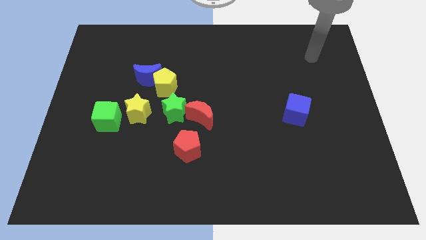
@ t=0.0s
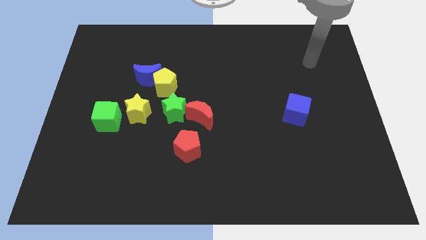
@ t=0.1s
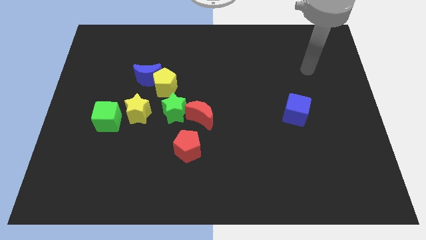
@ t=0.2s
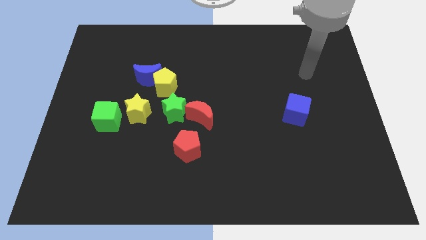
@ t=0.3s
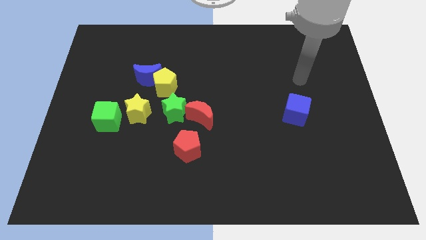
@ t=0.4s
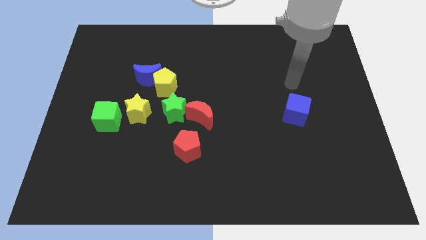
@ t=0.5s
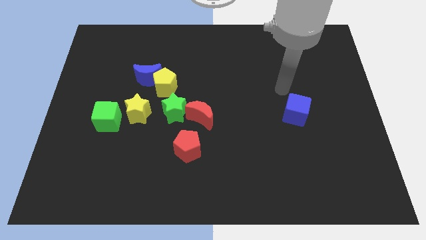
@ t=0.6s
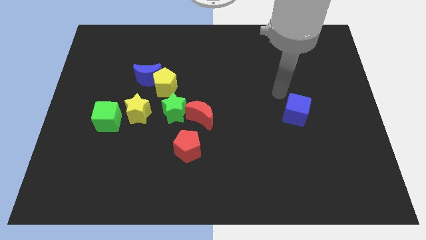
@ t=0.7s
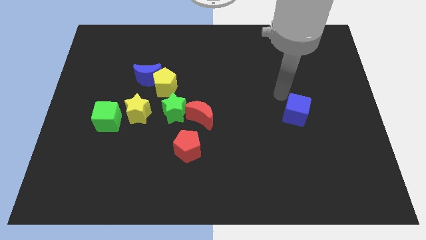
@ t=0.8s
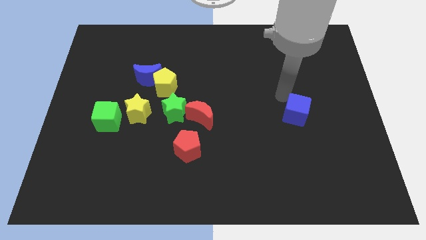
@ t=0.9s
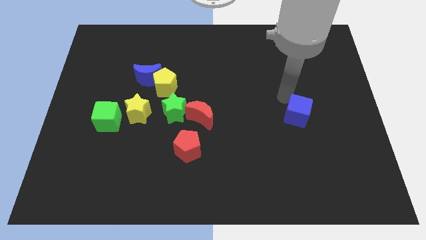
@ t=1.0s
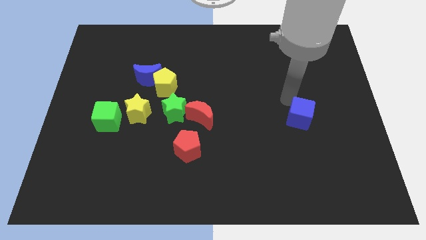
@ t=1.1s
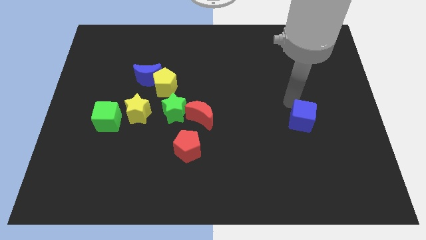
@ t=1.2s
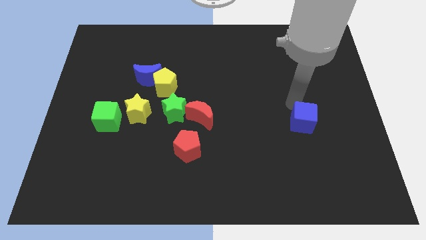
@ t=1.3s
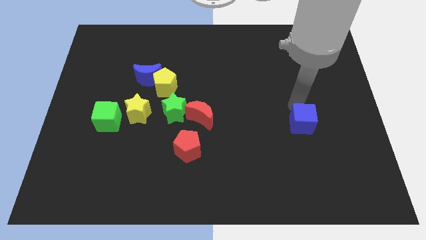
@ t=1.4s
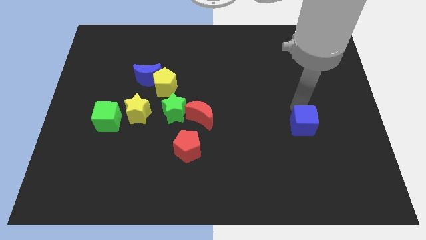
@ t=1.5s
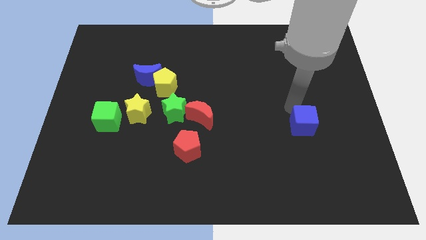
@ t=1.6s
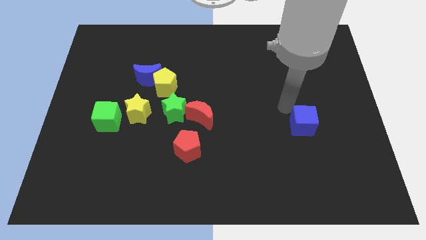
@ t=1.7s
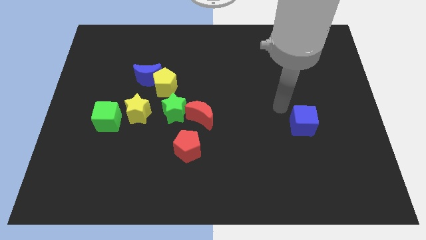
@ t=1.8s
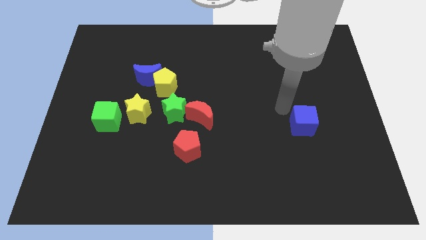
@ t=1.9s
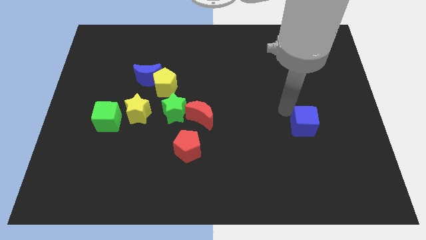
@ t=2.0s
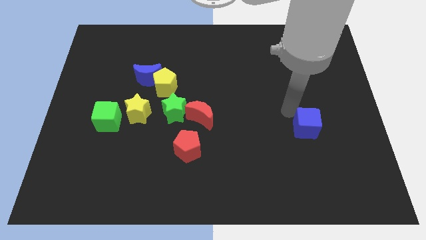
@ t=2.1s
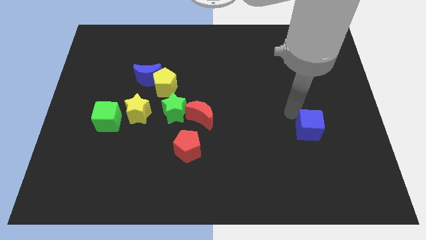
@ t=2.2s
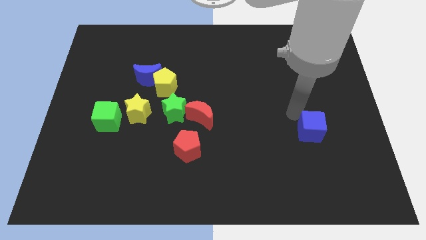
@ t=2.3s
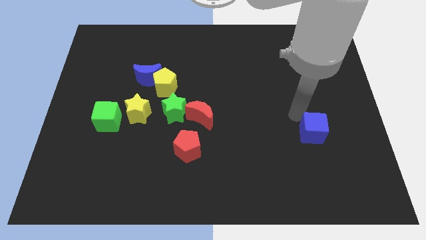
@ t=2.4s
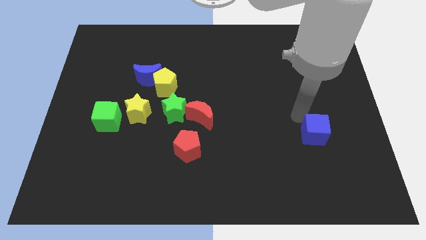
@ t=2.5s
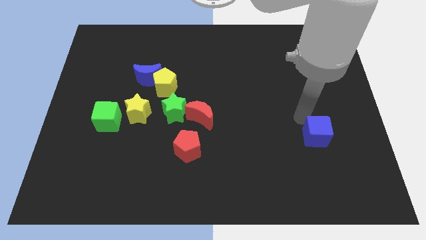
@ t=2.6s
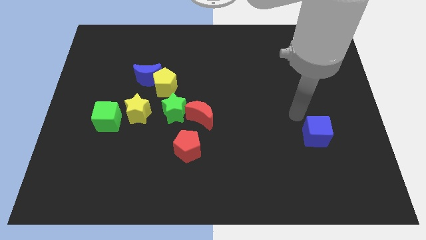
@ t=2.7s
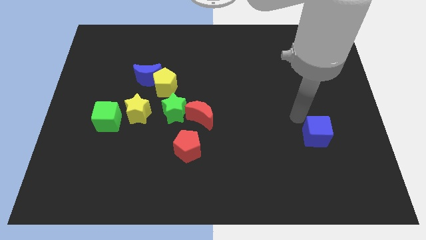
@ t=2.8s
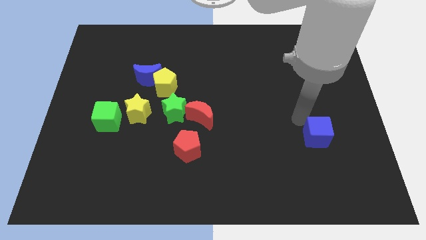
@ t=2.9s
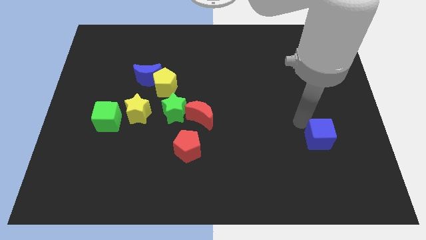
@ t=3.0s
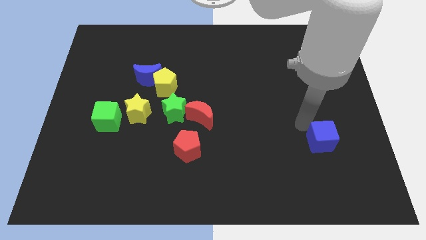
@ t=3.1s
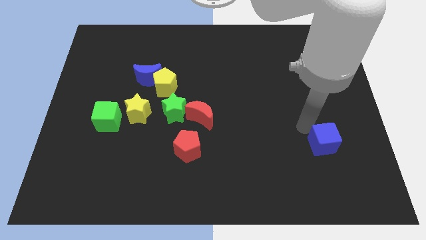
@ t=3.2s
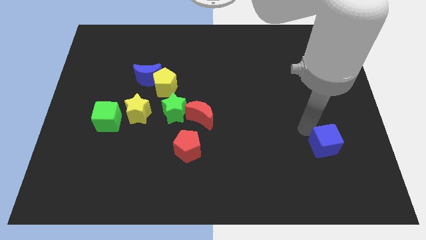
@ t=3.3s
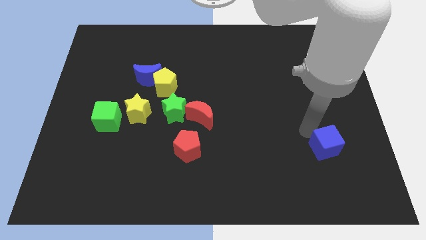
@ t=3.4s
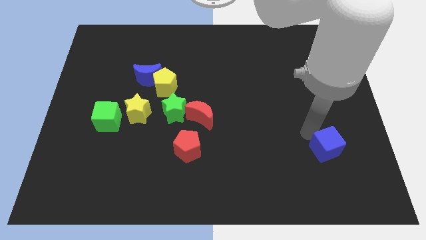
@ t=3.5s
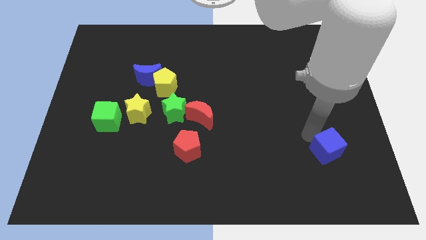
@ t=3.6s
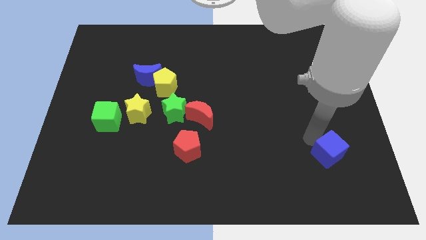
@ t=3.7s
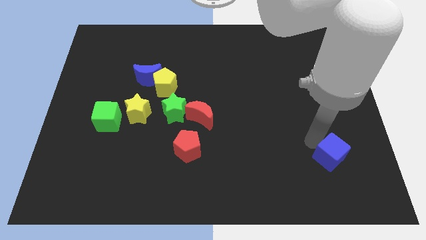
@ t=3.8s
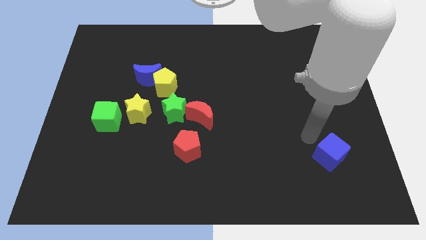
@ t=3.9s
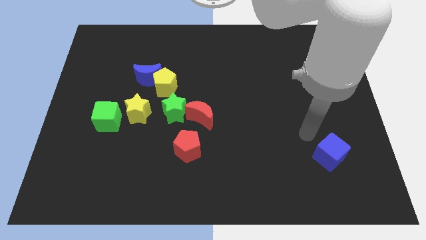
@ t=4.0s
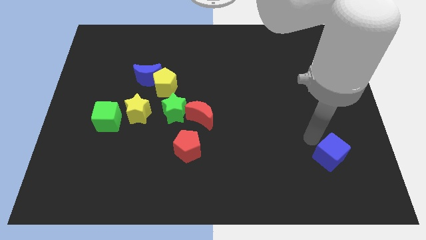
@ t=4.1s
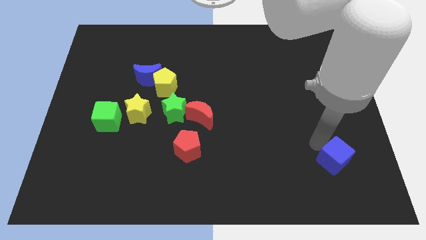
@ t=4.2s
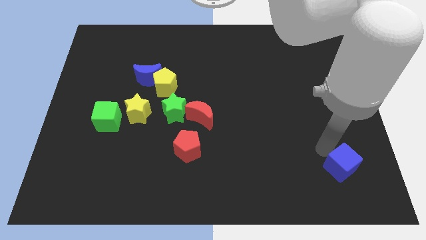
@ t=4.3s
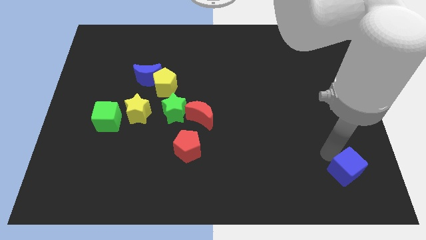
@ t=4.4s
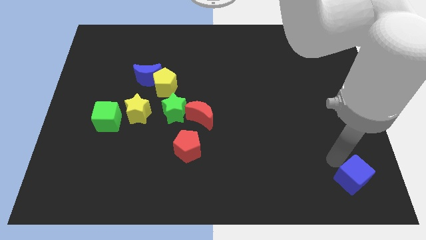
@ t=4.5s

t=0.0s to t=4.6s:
slide the blue cube to the bottom right corner

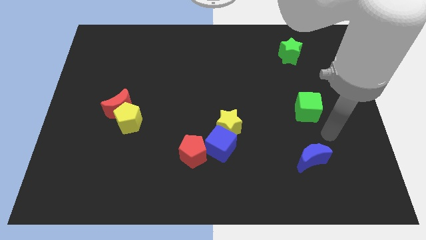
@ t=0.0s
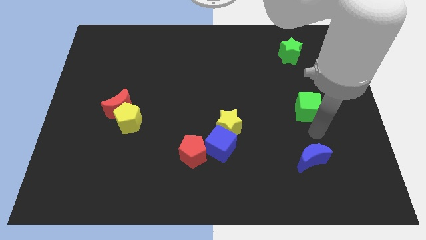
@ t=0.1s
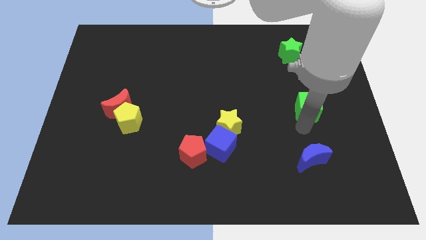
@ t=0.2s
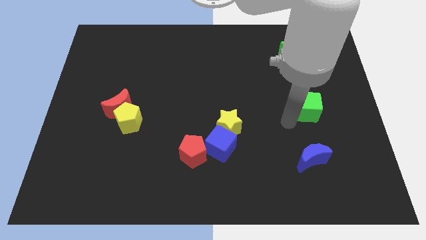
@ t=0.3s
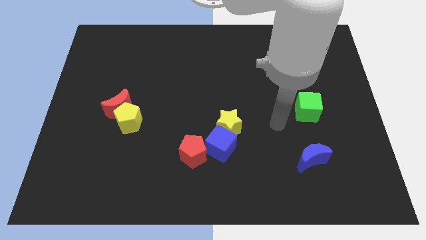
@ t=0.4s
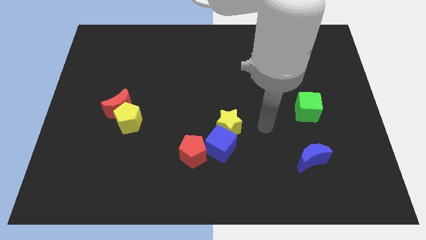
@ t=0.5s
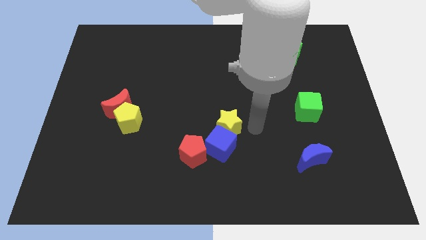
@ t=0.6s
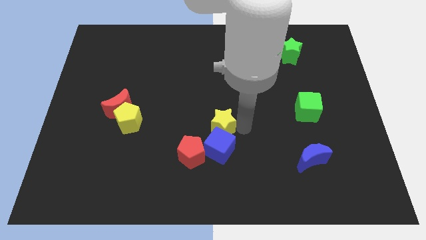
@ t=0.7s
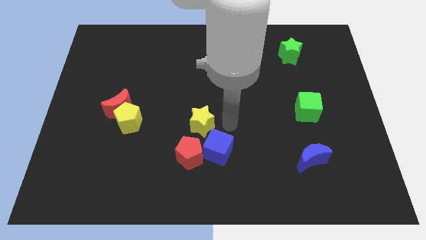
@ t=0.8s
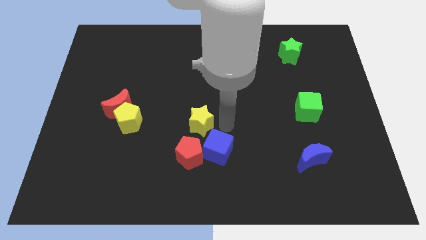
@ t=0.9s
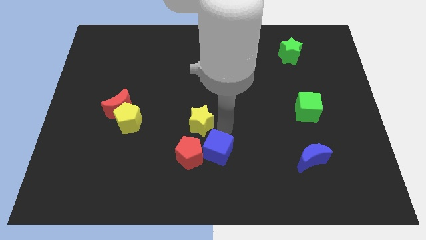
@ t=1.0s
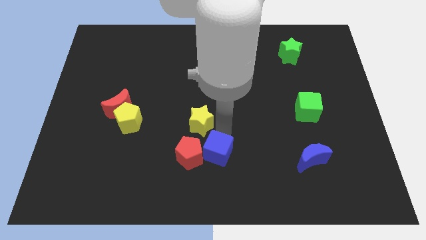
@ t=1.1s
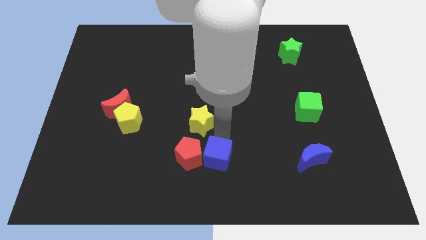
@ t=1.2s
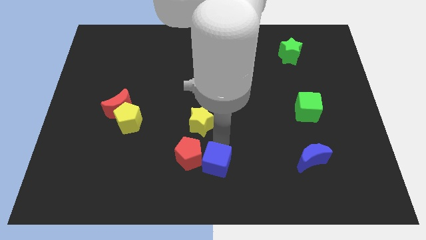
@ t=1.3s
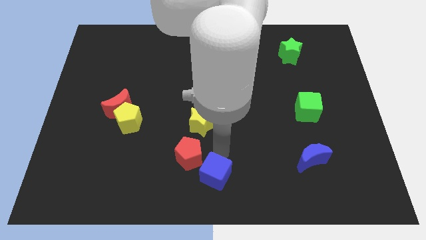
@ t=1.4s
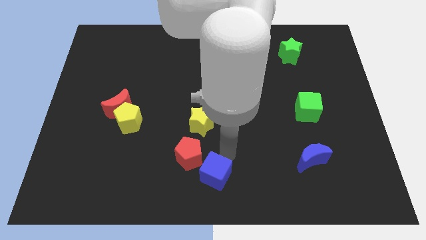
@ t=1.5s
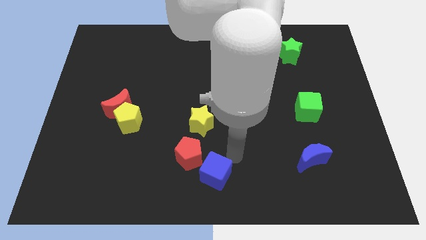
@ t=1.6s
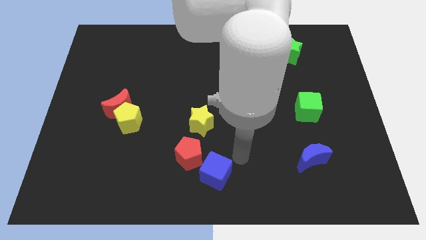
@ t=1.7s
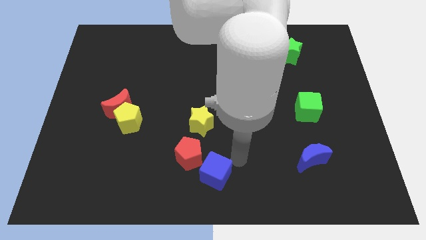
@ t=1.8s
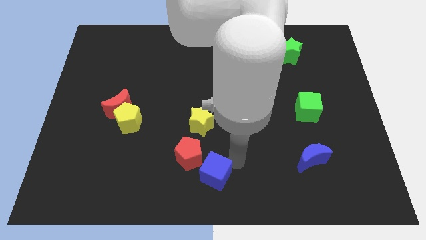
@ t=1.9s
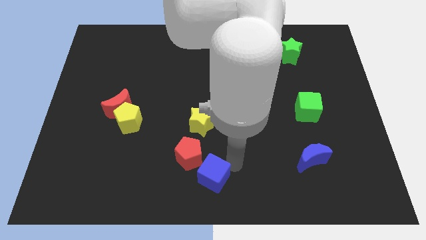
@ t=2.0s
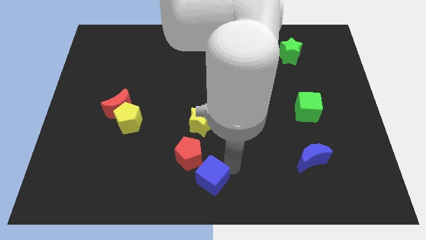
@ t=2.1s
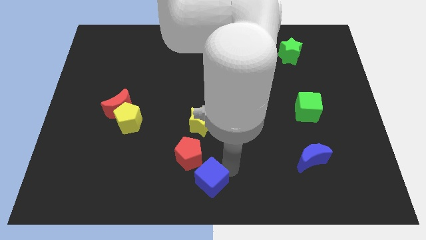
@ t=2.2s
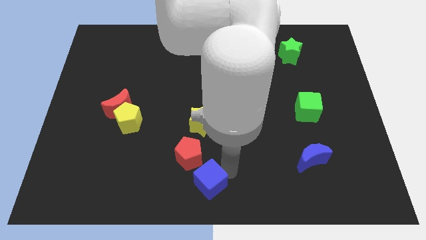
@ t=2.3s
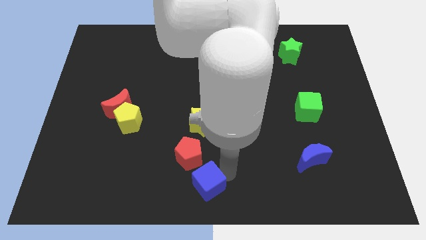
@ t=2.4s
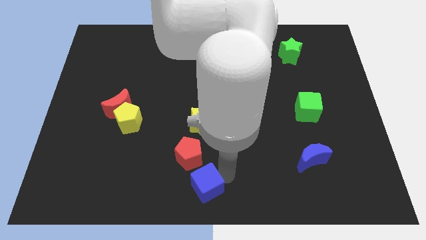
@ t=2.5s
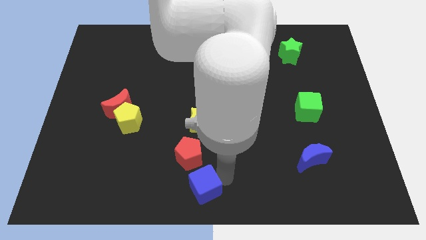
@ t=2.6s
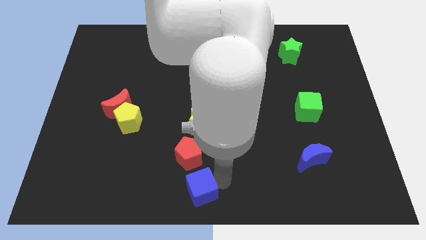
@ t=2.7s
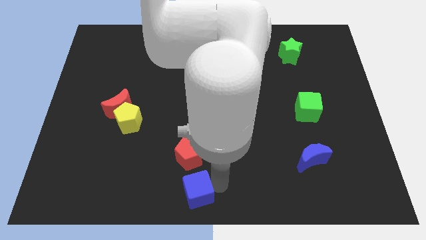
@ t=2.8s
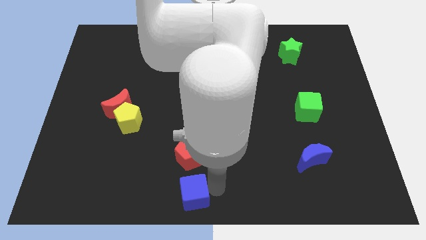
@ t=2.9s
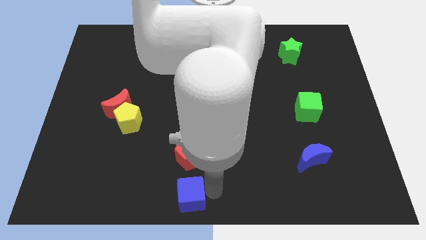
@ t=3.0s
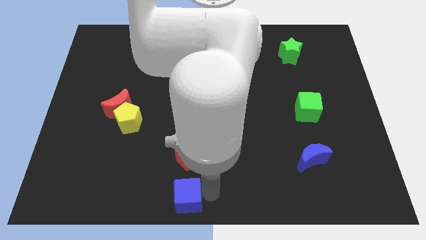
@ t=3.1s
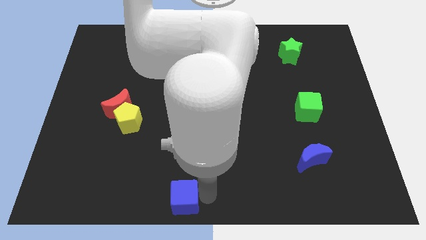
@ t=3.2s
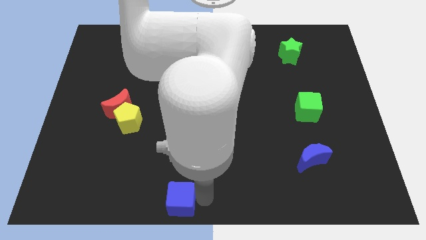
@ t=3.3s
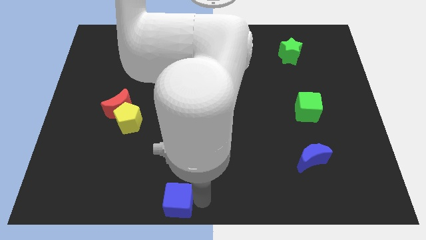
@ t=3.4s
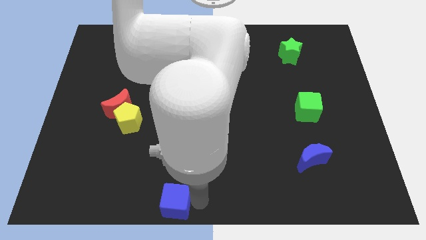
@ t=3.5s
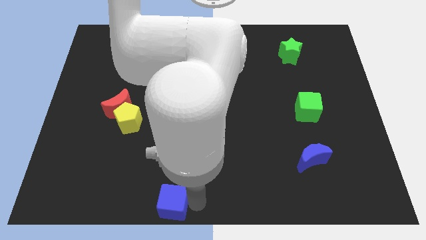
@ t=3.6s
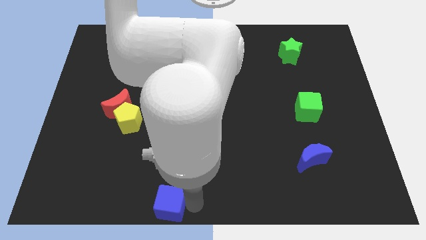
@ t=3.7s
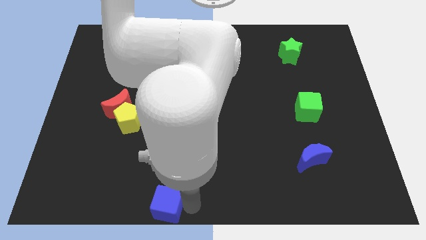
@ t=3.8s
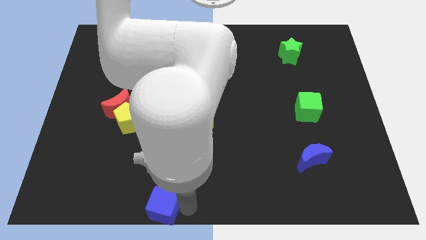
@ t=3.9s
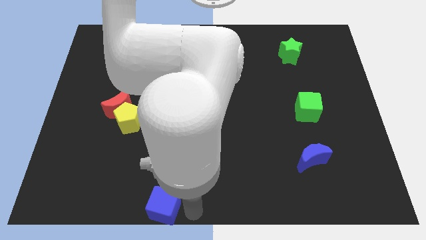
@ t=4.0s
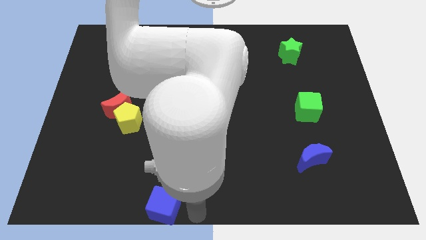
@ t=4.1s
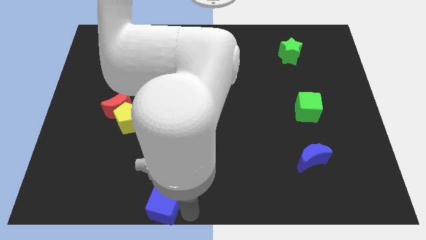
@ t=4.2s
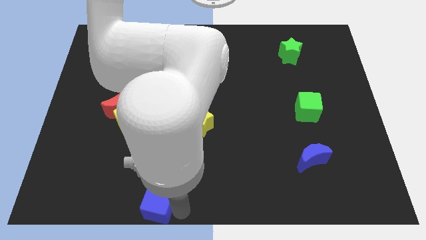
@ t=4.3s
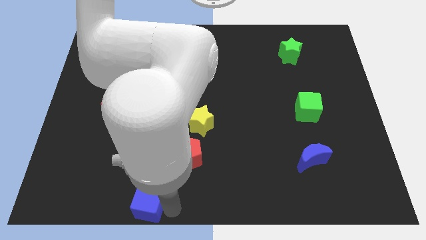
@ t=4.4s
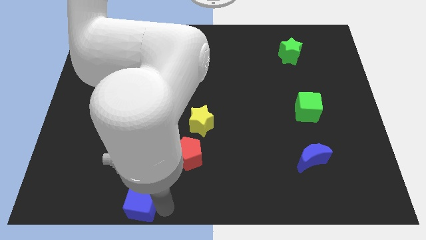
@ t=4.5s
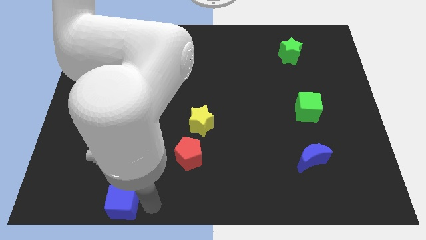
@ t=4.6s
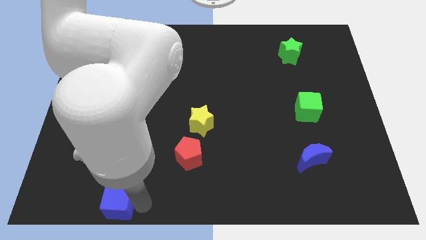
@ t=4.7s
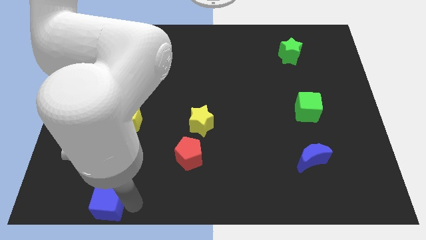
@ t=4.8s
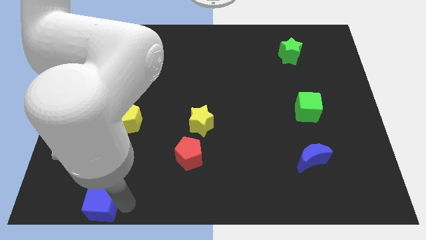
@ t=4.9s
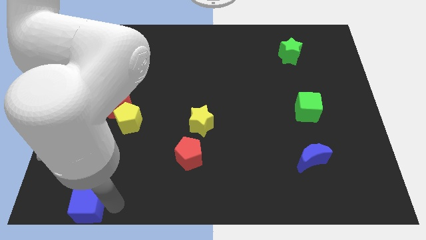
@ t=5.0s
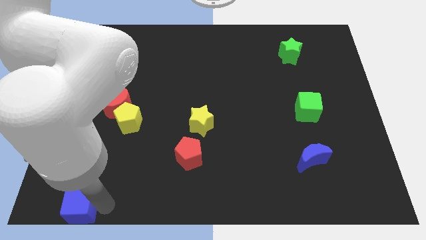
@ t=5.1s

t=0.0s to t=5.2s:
slide the blue cube to the bottom left corner
